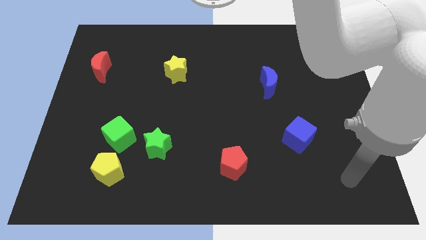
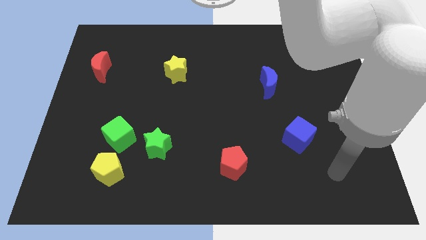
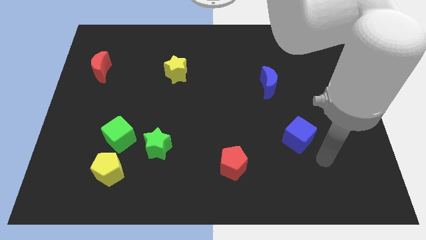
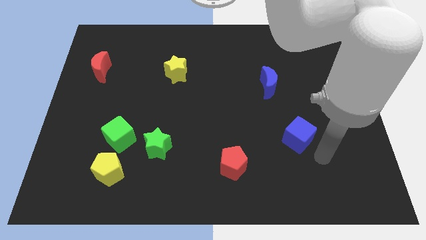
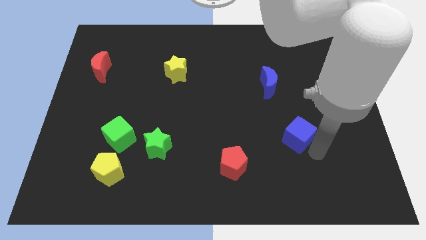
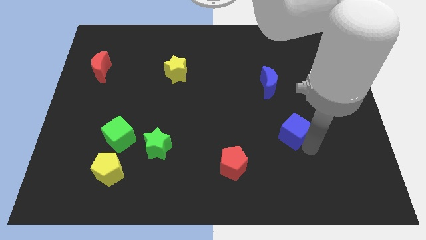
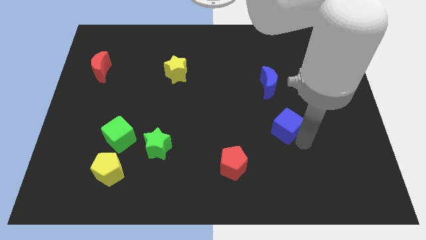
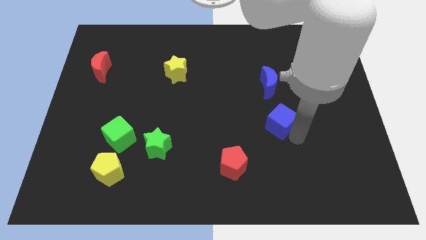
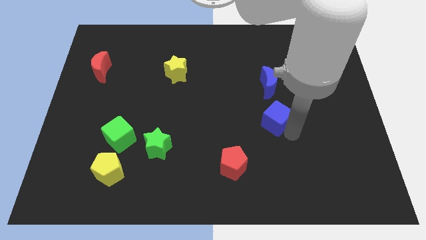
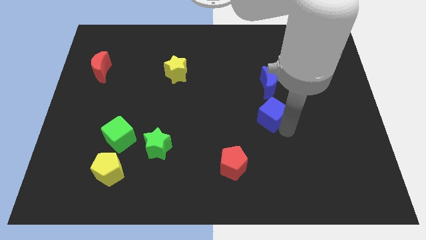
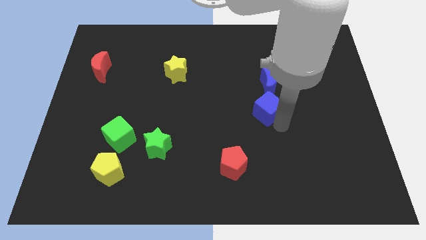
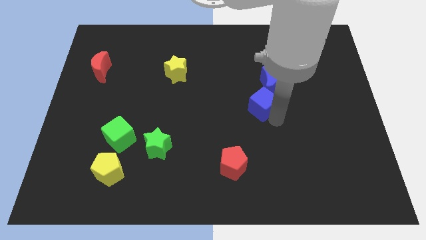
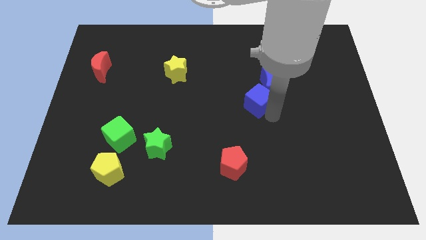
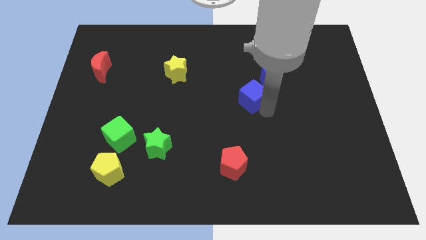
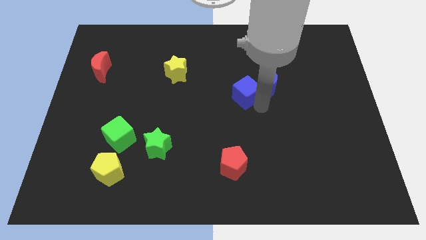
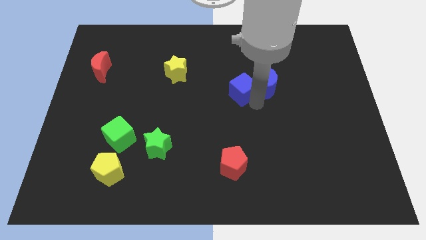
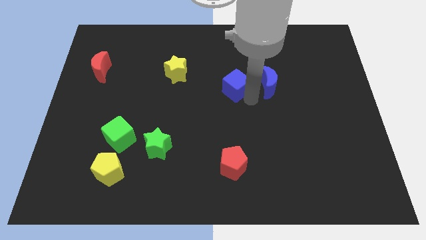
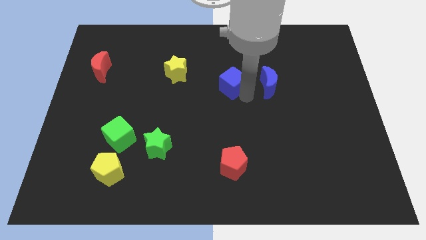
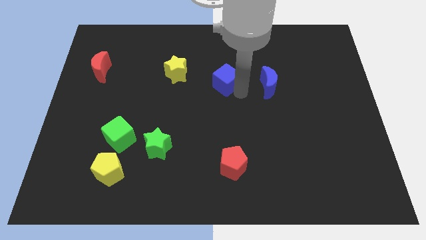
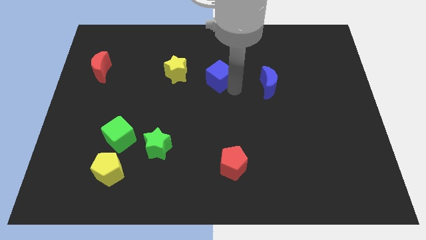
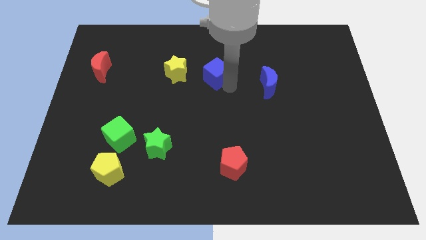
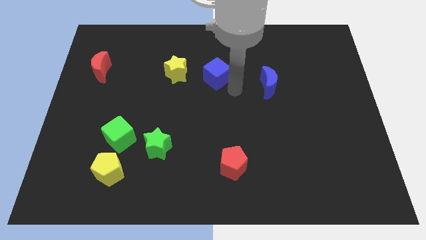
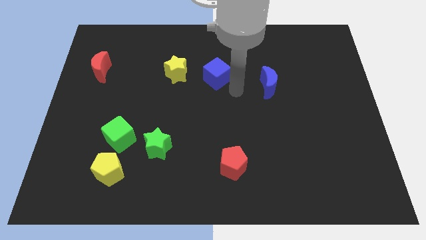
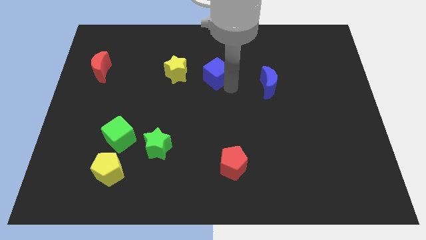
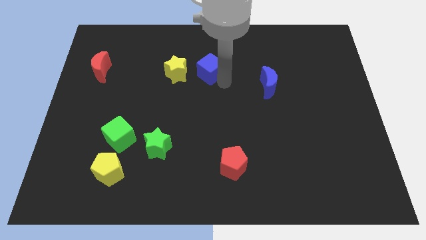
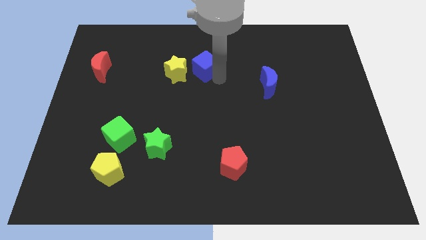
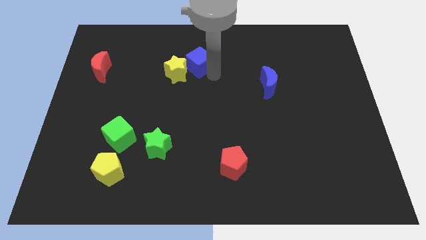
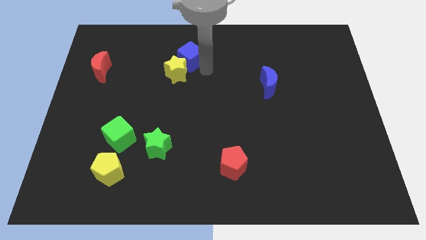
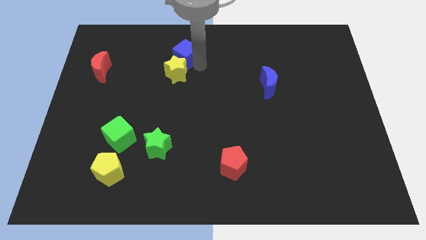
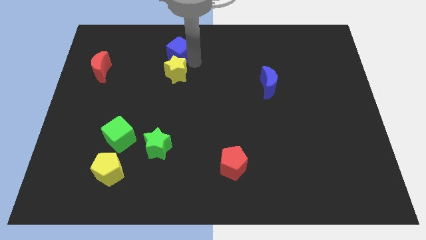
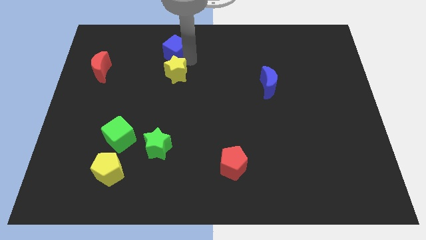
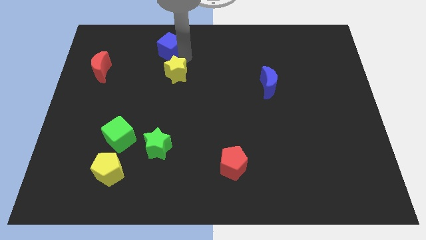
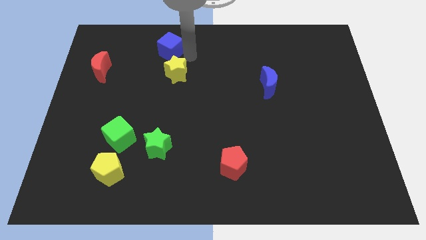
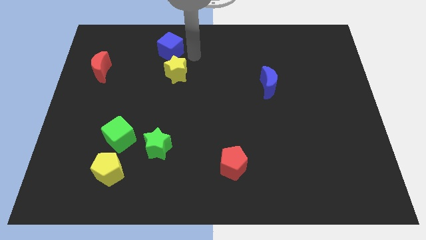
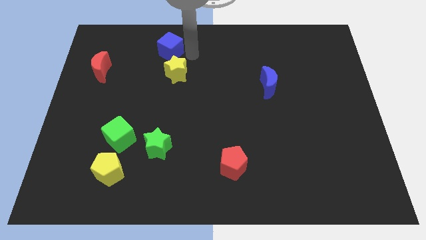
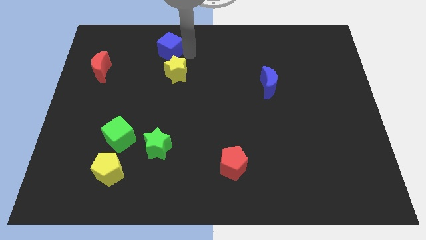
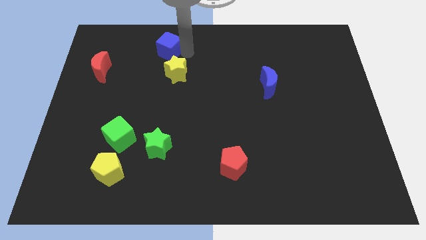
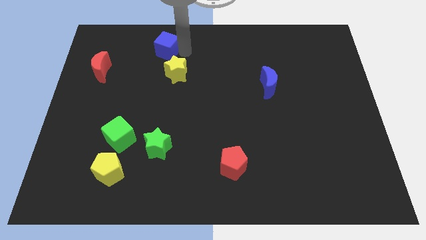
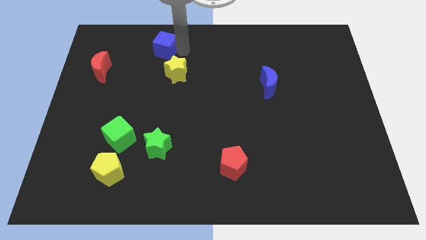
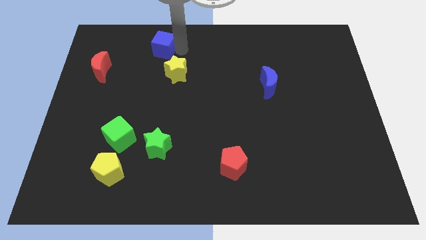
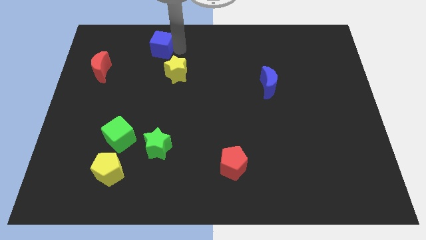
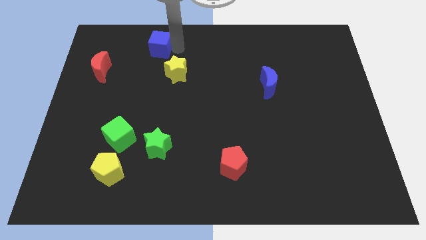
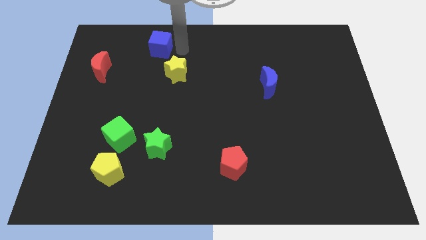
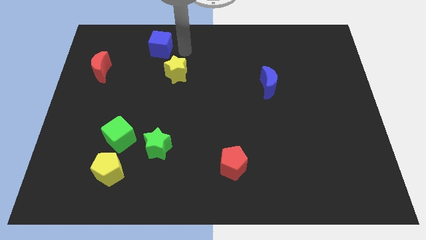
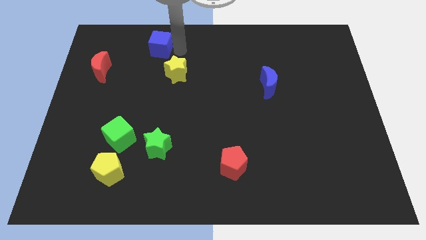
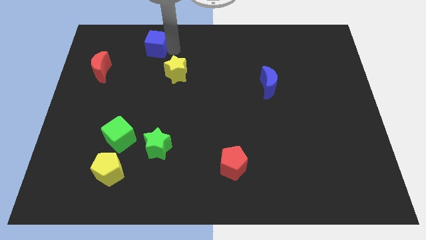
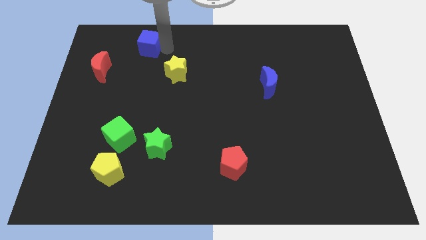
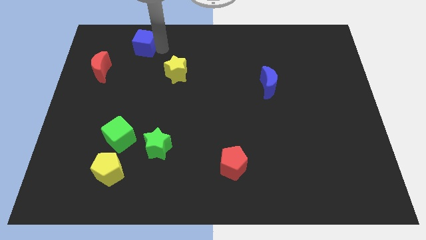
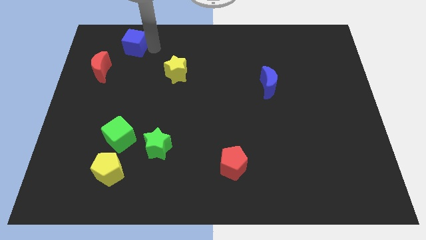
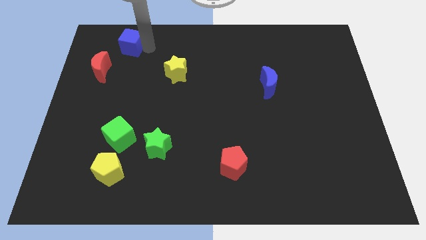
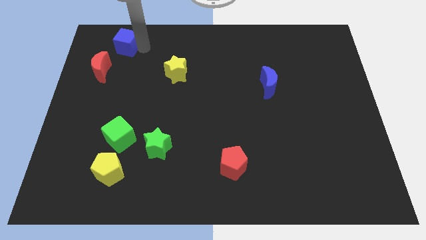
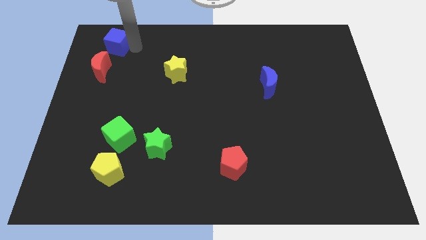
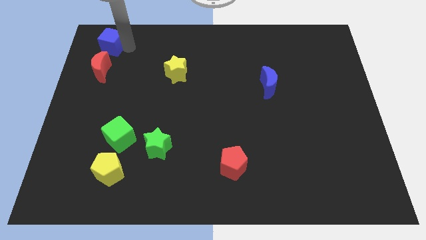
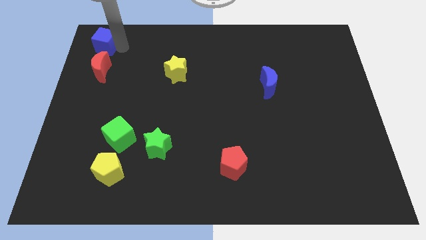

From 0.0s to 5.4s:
slide the blue cube to the top left corner
